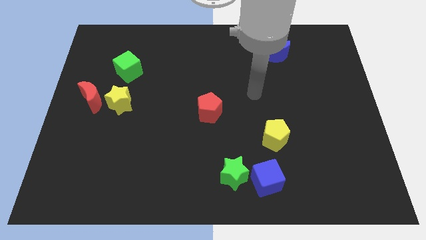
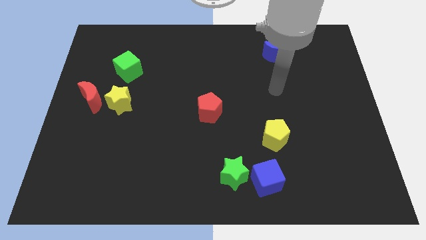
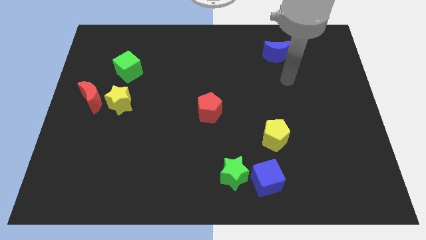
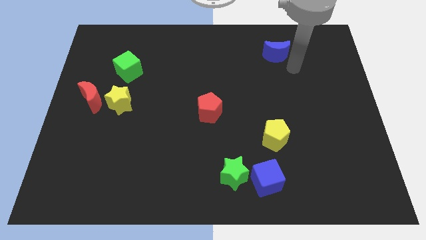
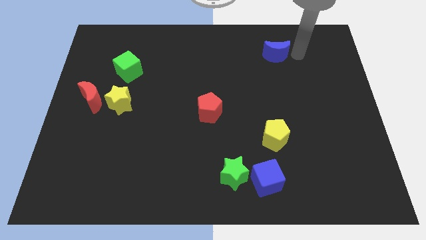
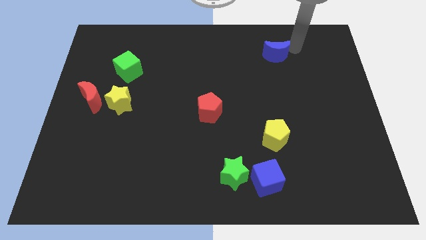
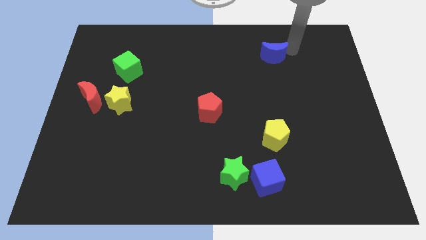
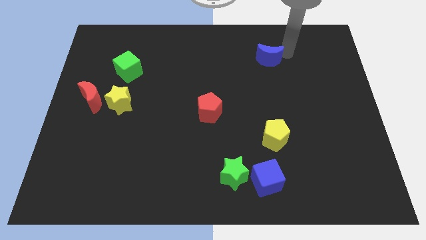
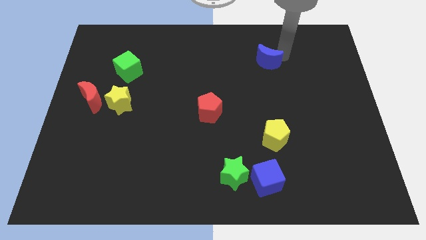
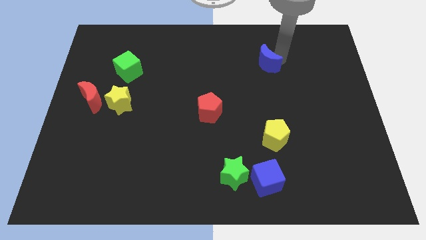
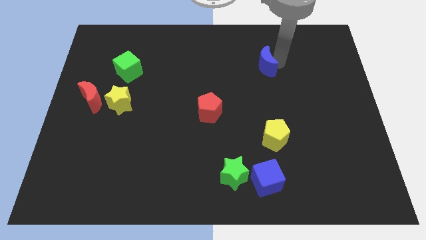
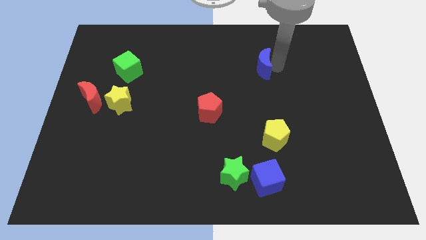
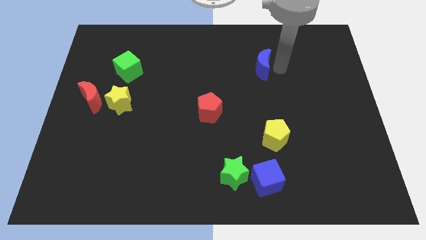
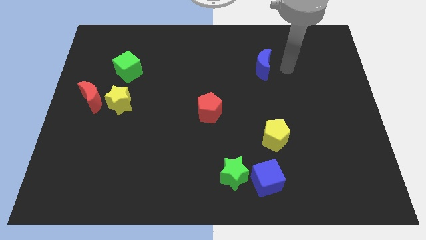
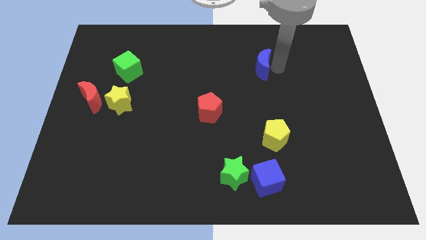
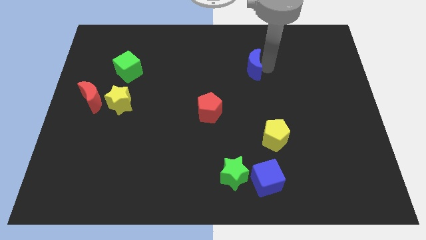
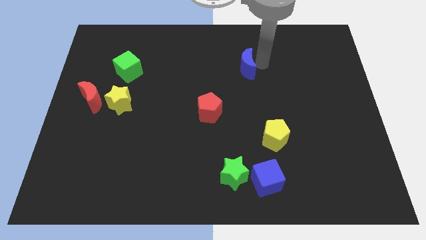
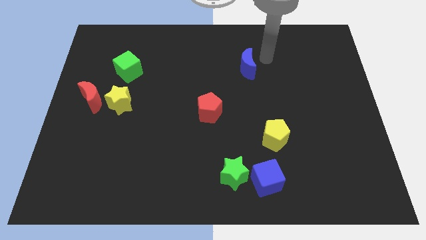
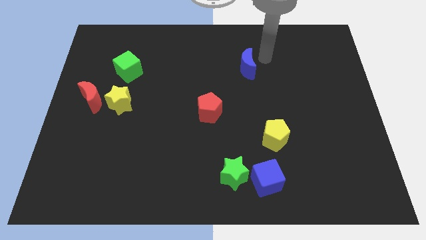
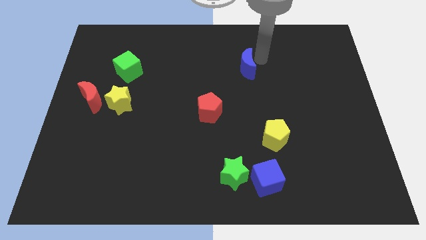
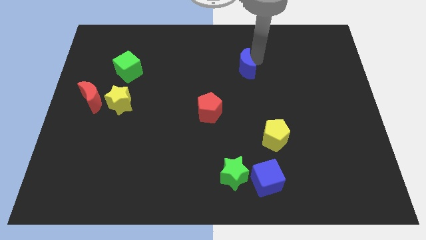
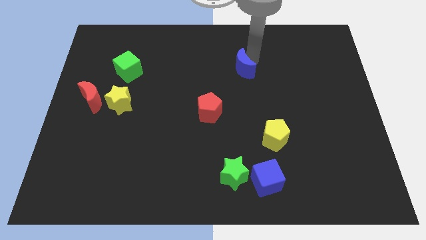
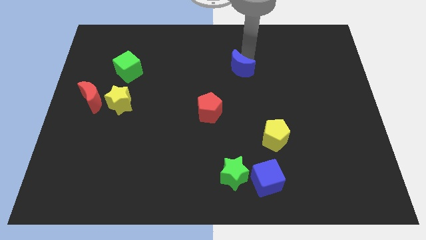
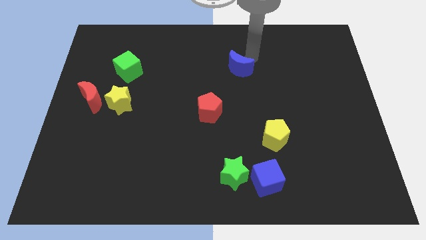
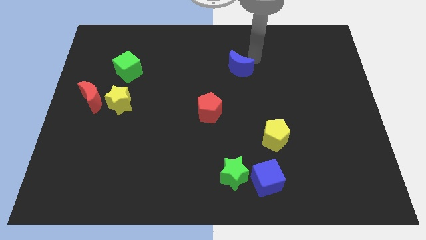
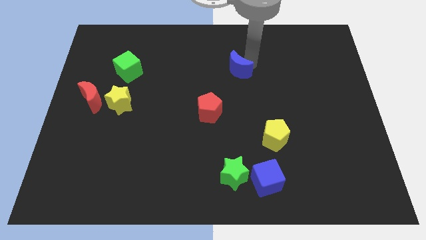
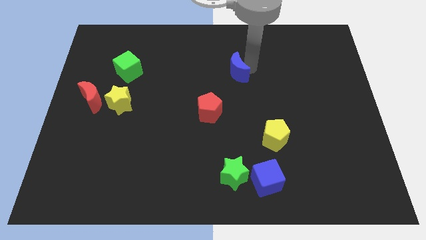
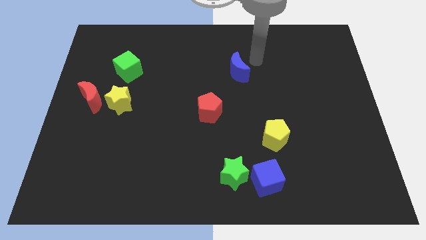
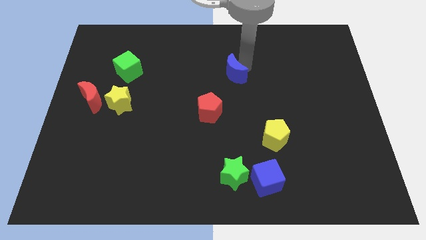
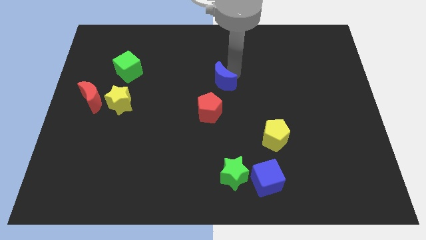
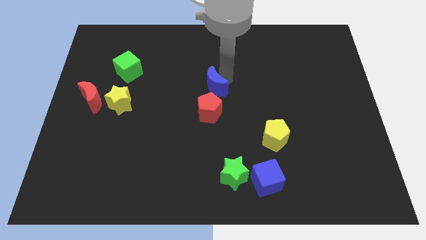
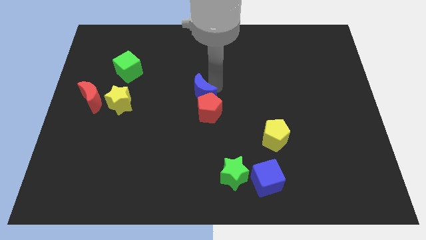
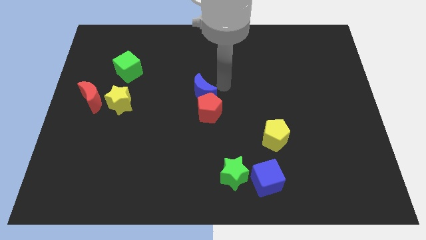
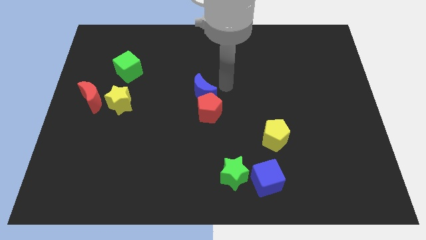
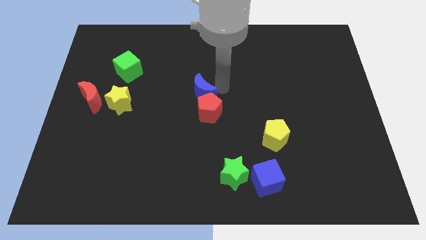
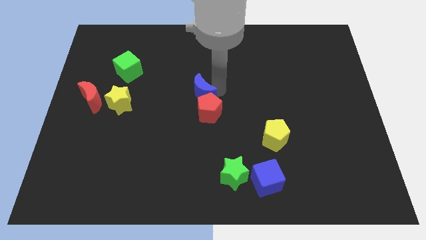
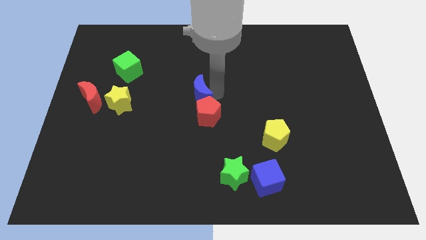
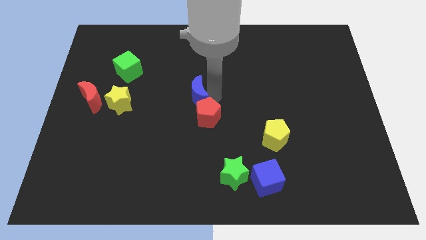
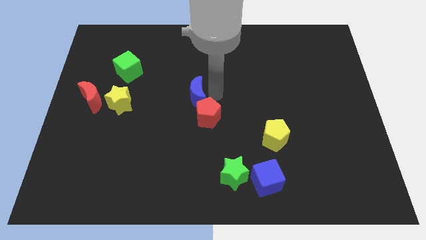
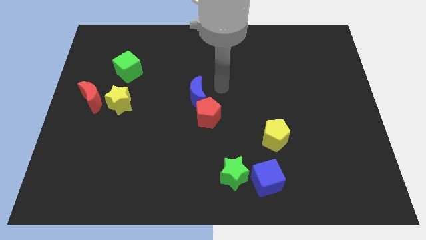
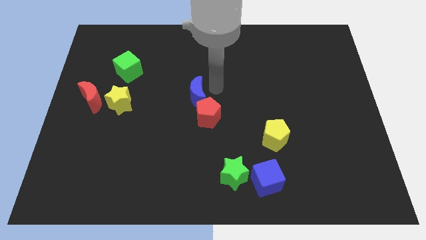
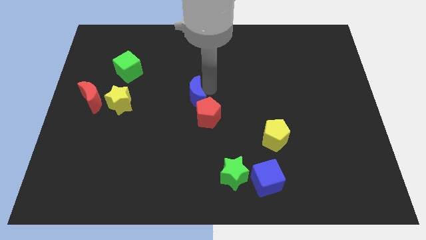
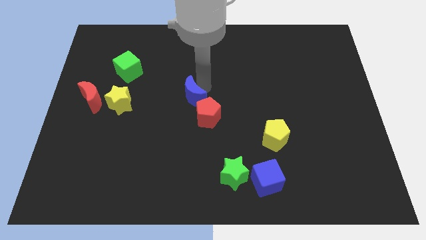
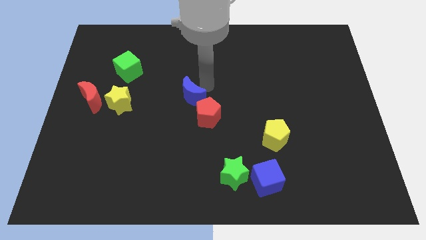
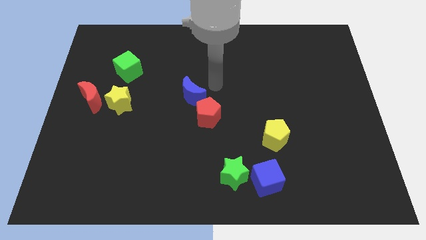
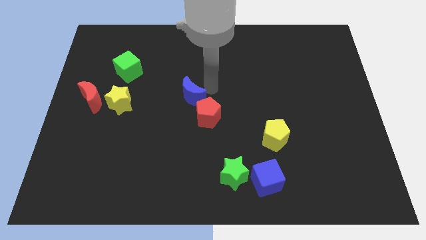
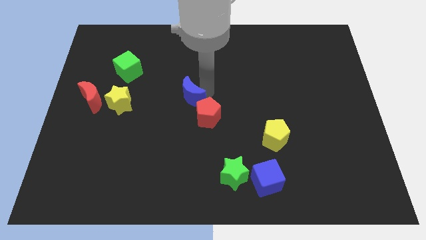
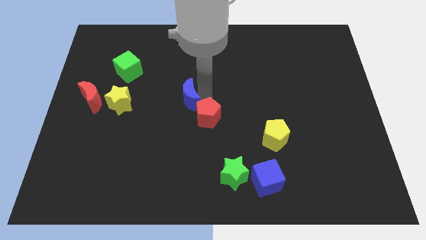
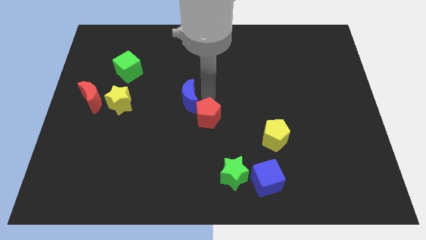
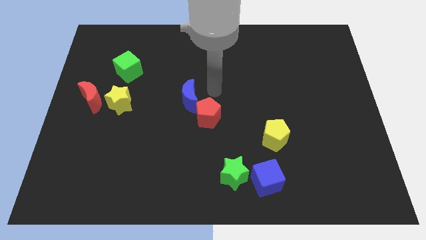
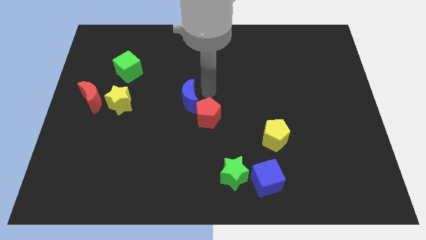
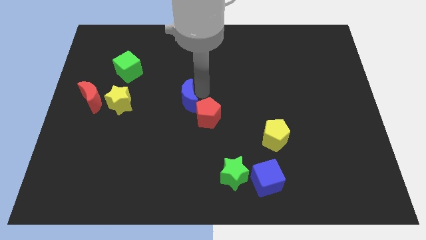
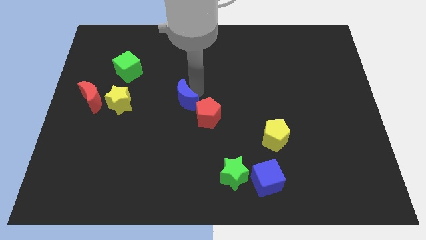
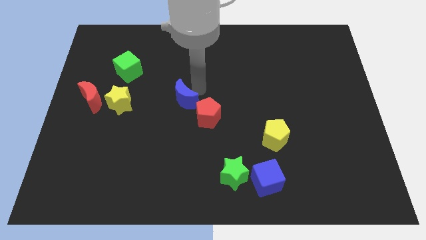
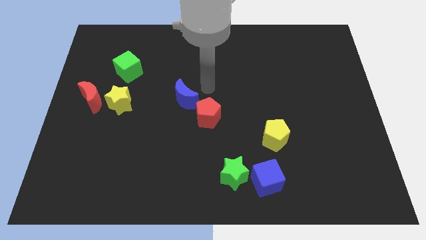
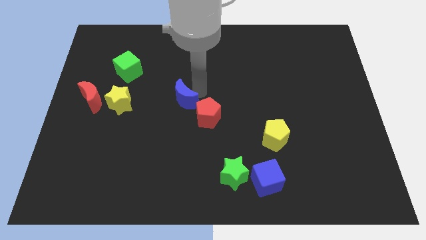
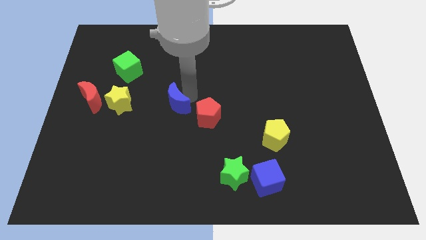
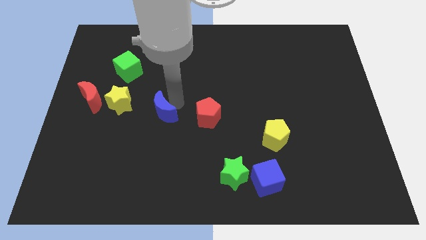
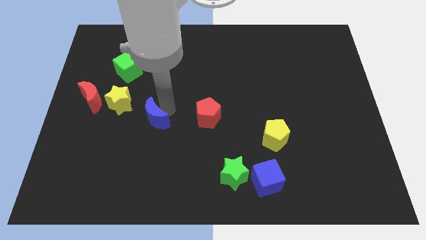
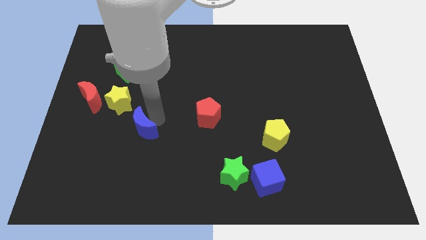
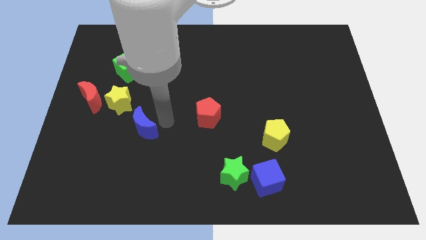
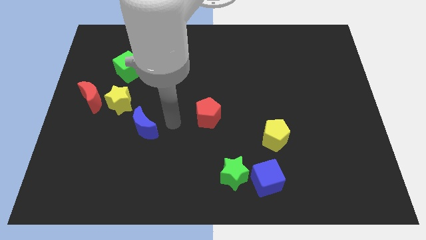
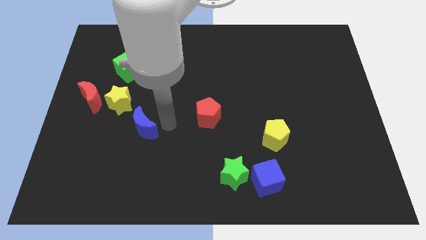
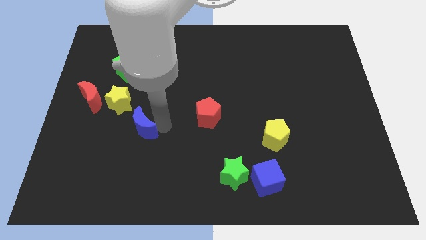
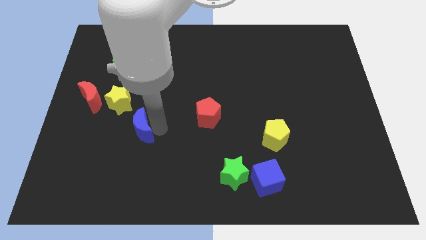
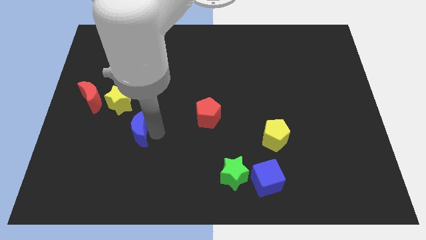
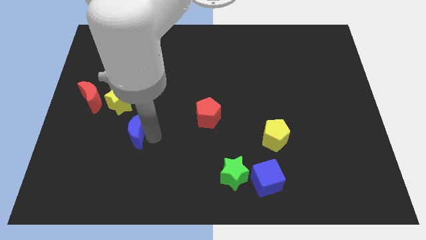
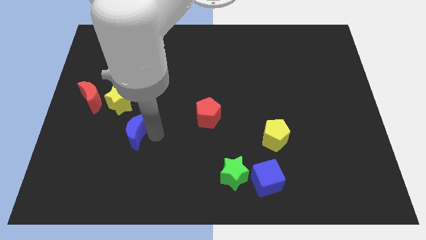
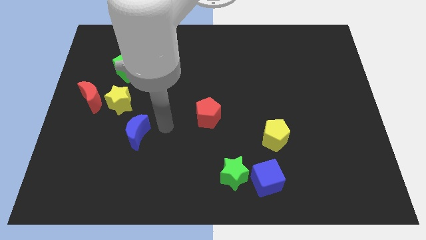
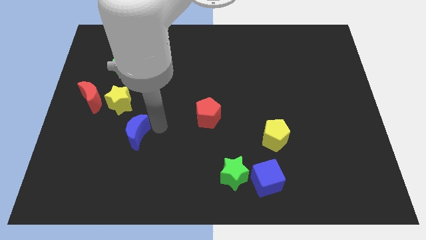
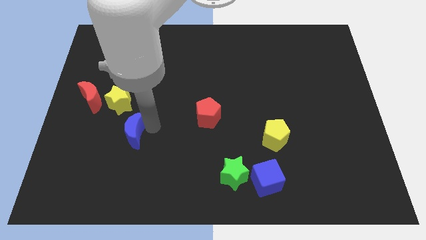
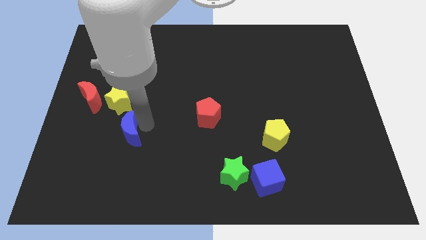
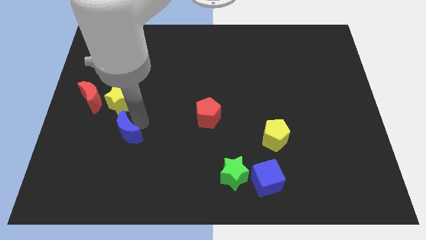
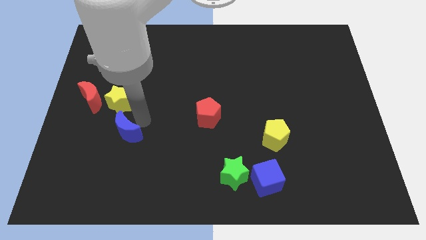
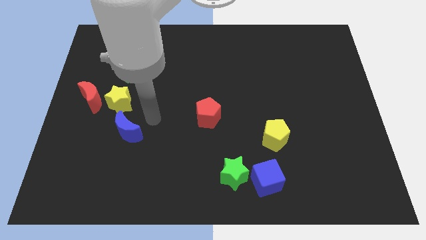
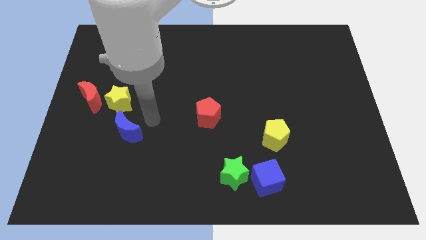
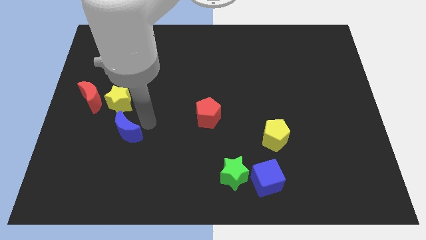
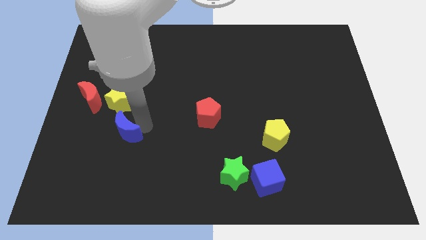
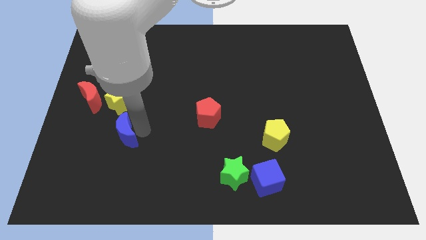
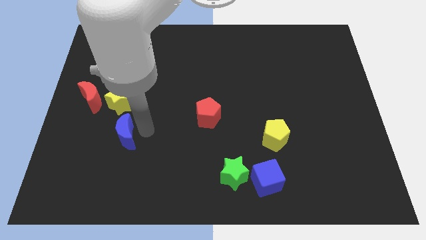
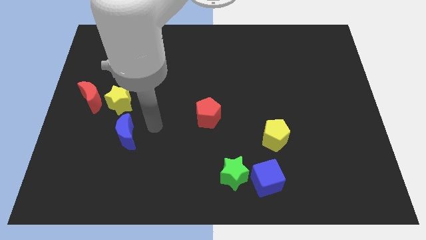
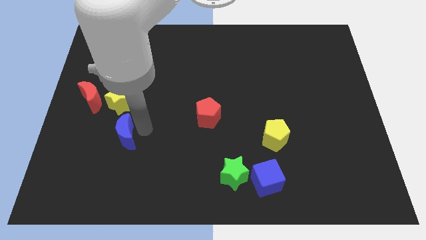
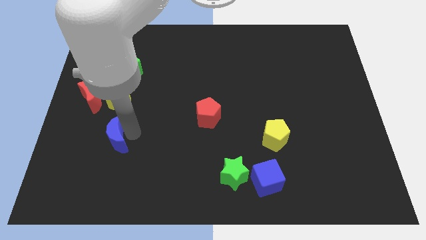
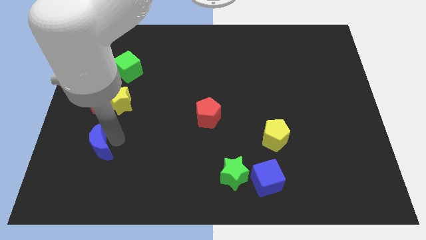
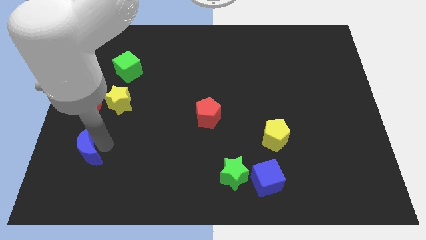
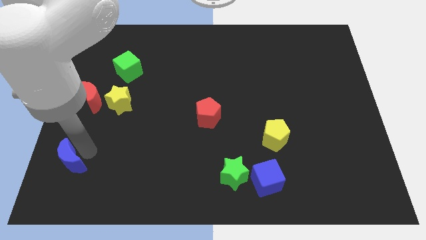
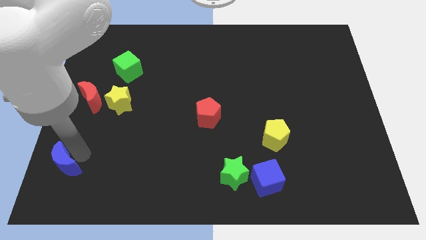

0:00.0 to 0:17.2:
put the blue moon to the bottom left of the board
